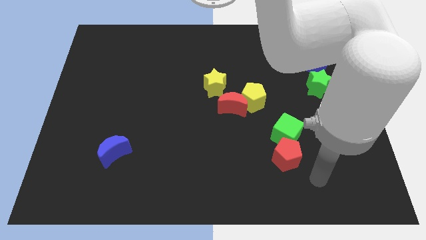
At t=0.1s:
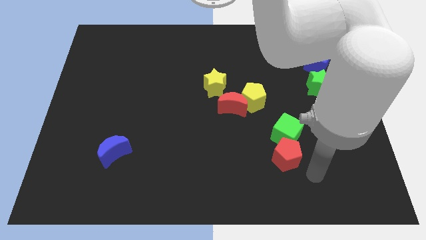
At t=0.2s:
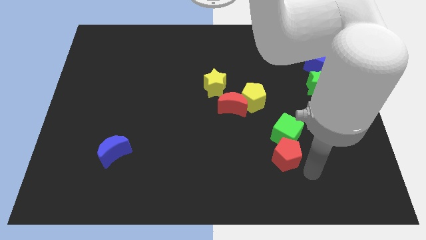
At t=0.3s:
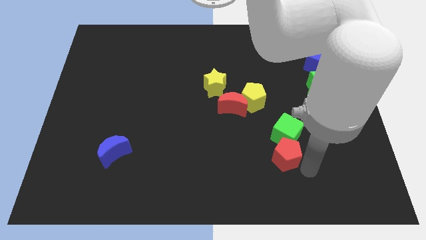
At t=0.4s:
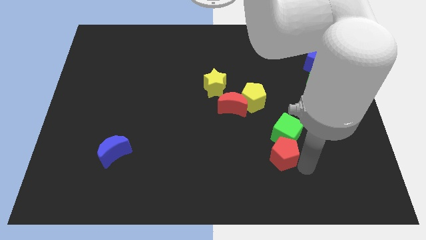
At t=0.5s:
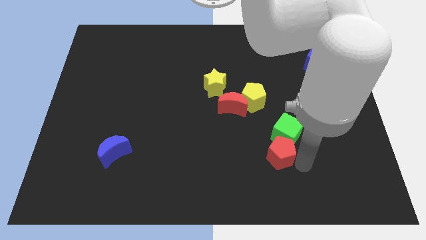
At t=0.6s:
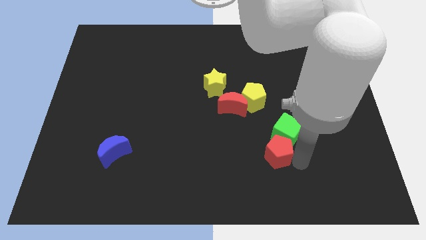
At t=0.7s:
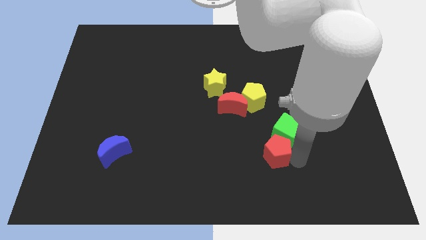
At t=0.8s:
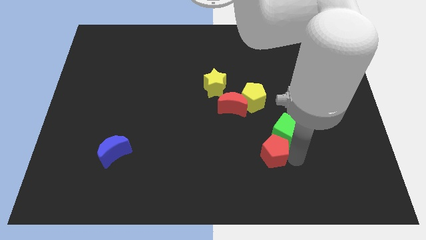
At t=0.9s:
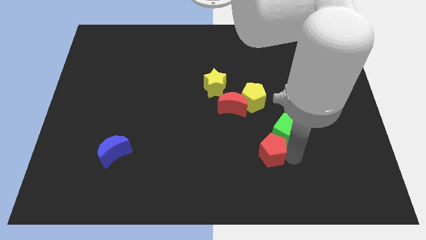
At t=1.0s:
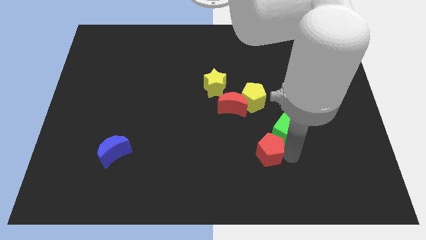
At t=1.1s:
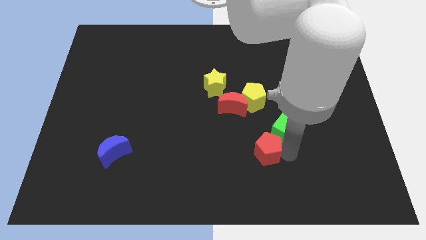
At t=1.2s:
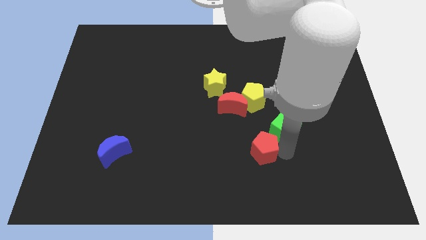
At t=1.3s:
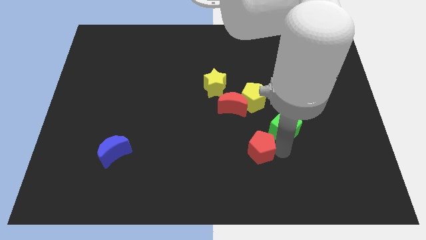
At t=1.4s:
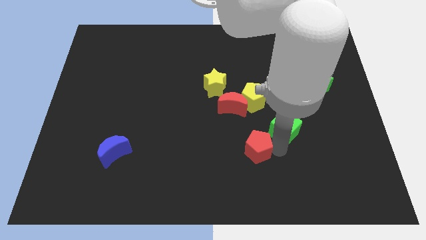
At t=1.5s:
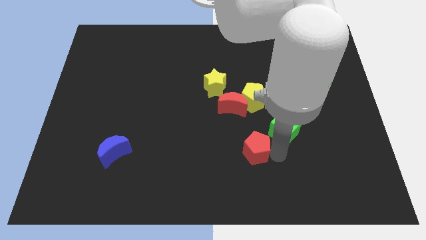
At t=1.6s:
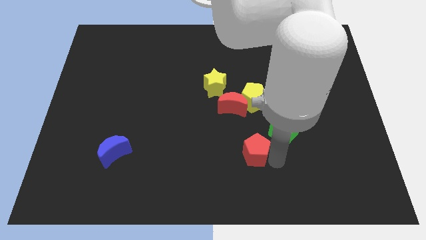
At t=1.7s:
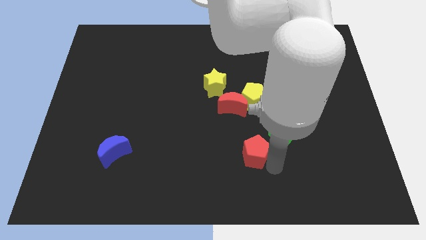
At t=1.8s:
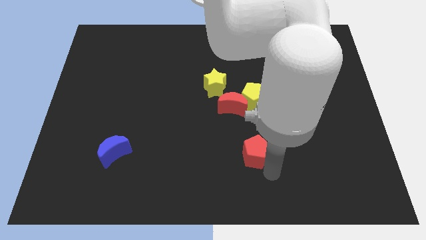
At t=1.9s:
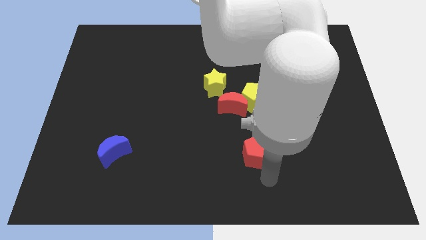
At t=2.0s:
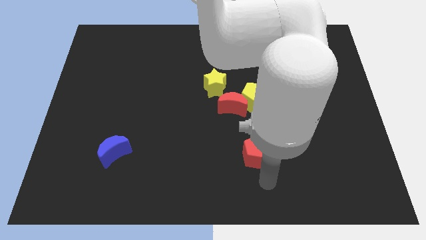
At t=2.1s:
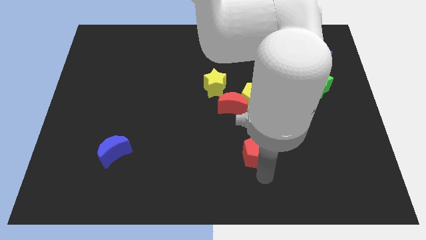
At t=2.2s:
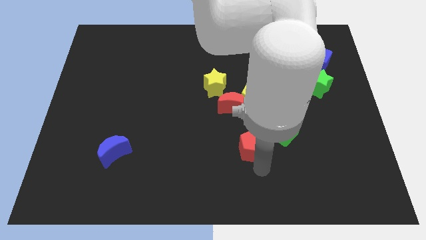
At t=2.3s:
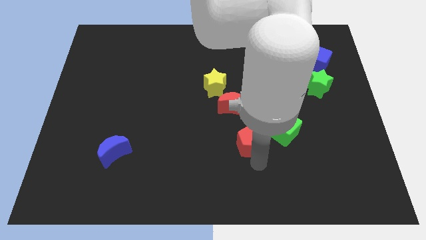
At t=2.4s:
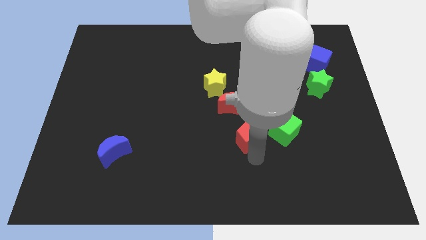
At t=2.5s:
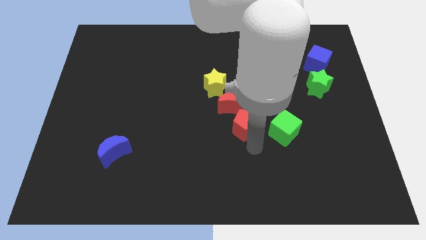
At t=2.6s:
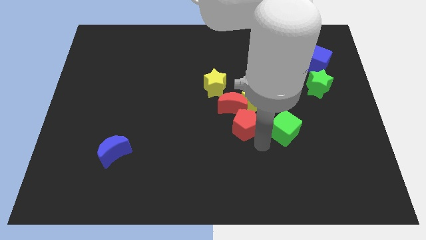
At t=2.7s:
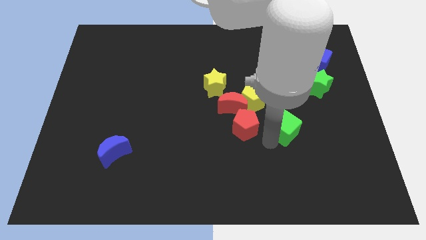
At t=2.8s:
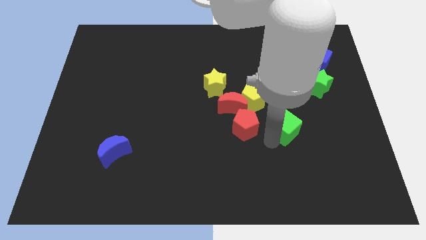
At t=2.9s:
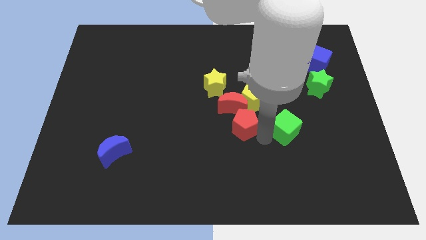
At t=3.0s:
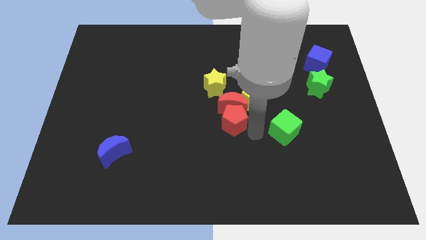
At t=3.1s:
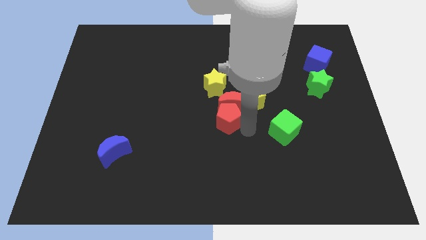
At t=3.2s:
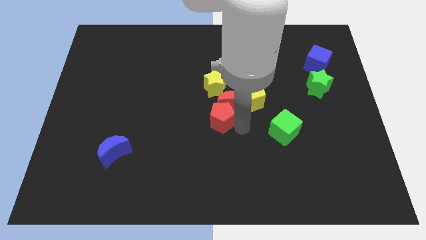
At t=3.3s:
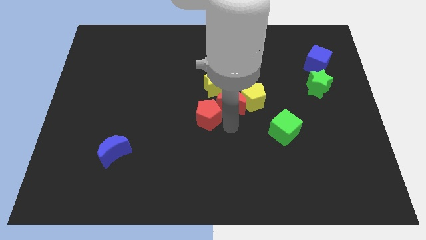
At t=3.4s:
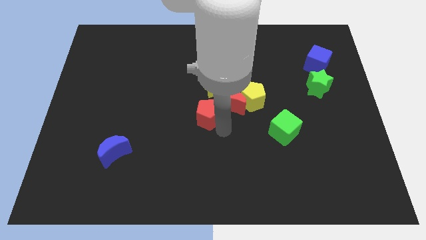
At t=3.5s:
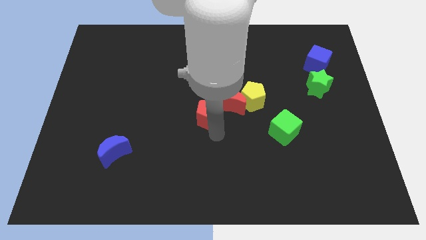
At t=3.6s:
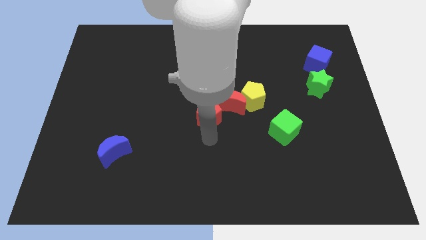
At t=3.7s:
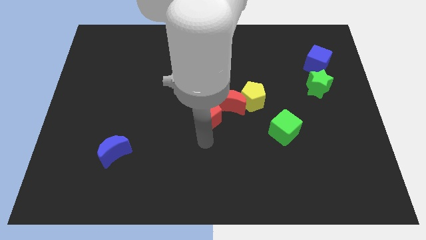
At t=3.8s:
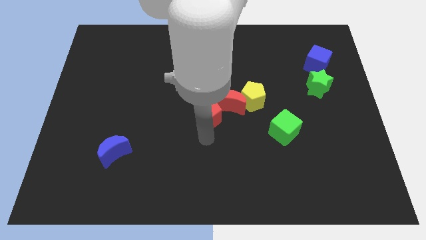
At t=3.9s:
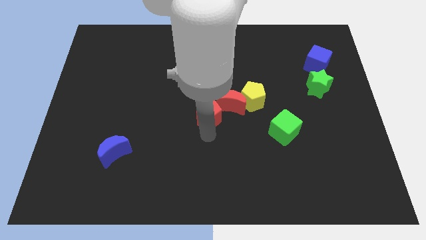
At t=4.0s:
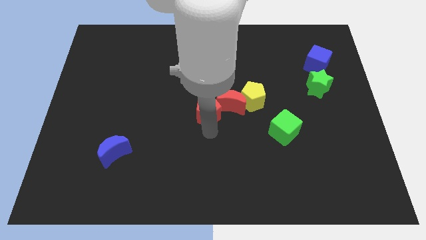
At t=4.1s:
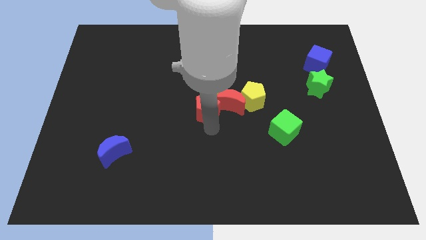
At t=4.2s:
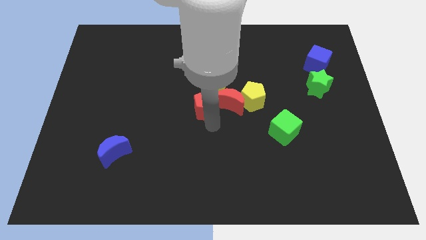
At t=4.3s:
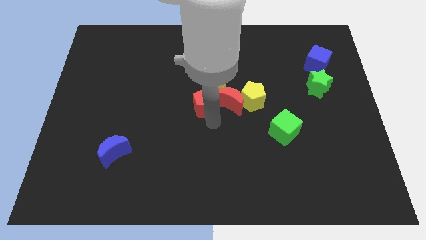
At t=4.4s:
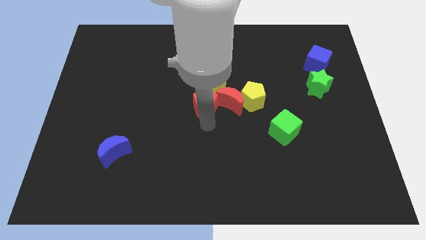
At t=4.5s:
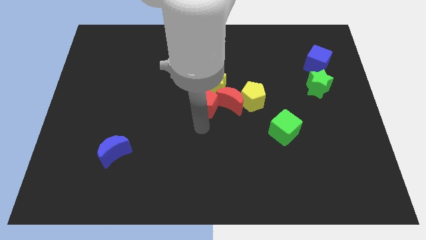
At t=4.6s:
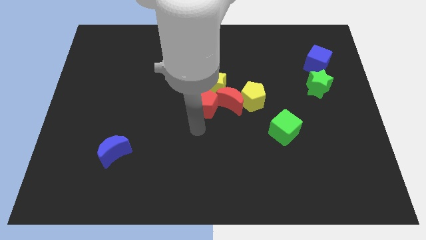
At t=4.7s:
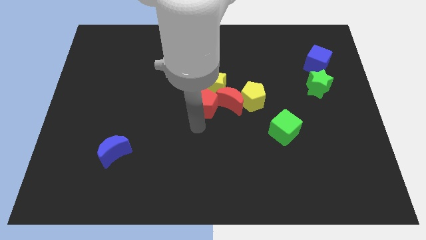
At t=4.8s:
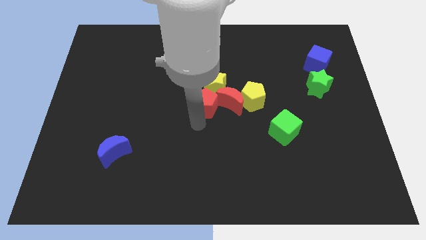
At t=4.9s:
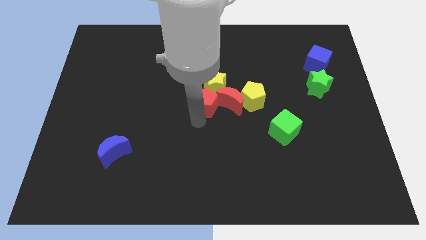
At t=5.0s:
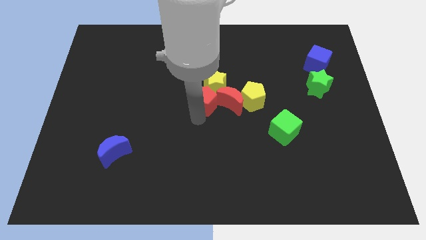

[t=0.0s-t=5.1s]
put the red pentagon next to the yellow star

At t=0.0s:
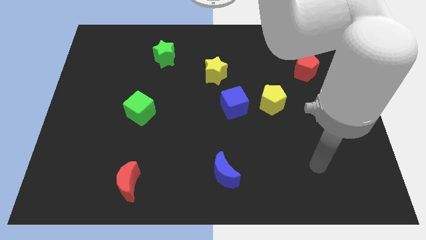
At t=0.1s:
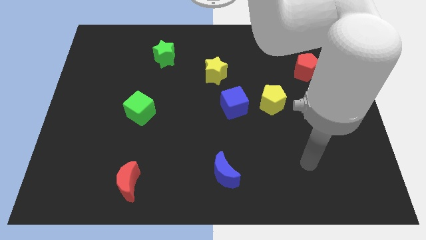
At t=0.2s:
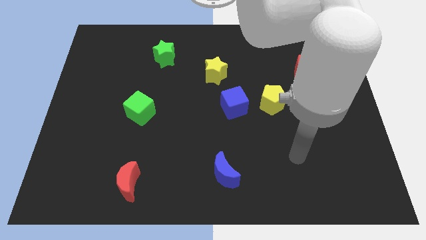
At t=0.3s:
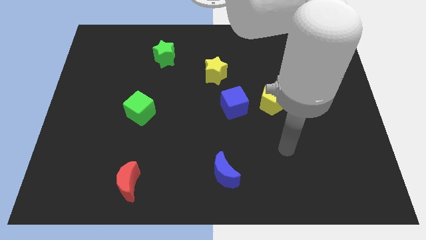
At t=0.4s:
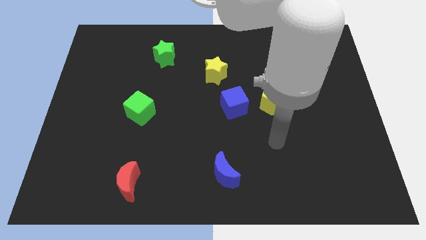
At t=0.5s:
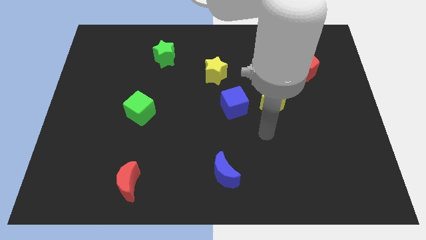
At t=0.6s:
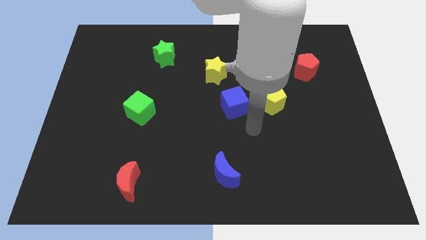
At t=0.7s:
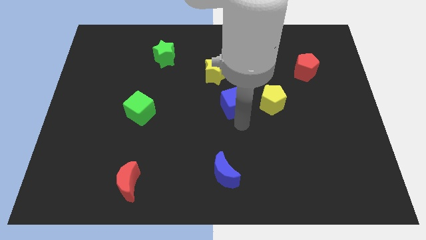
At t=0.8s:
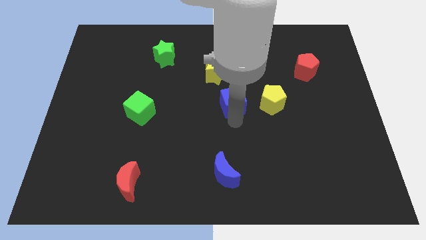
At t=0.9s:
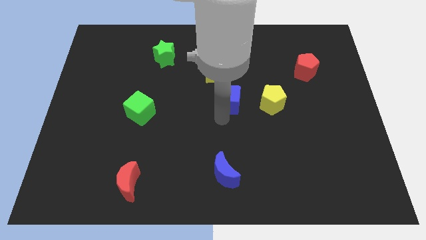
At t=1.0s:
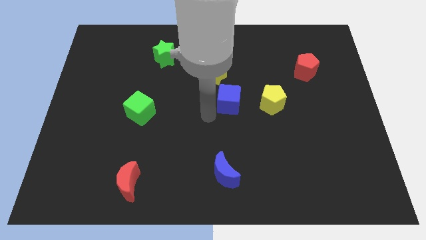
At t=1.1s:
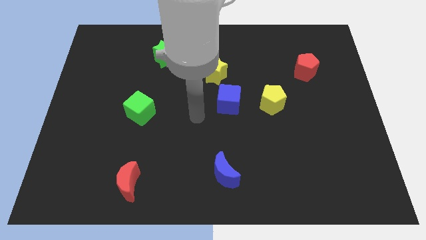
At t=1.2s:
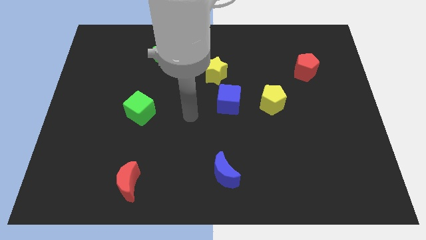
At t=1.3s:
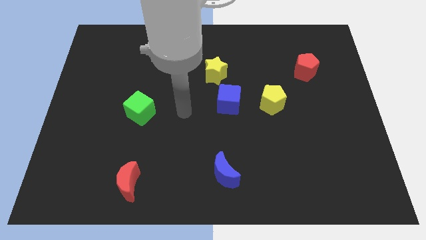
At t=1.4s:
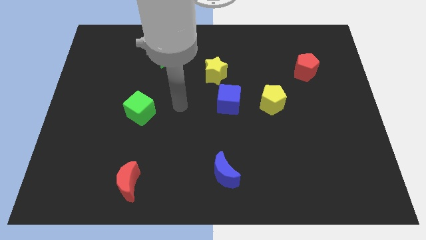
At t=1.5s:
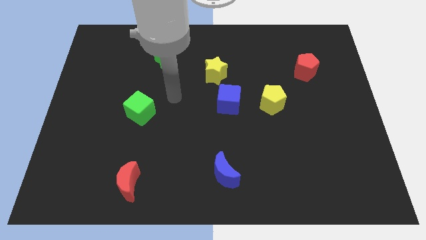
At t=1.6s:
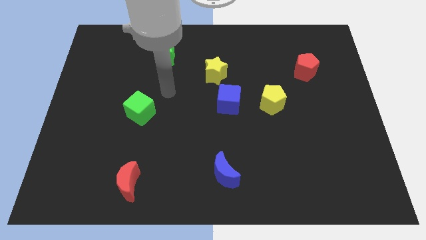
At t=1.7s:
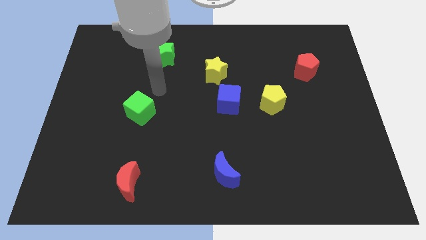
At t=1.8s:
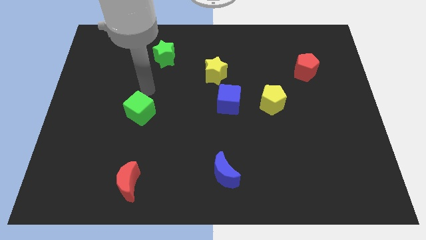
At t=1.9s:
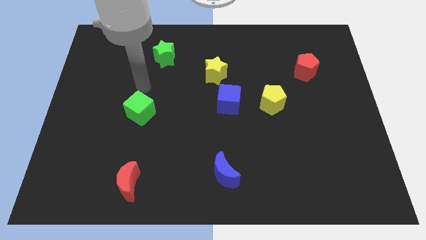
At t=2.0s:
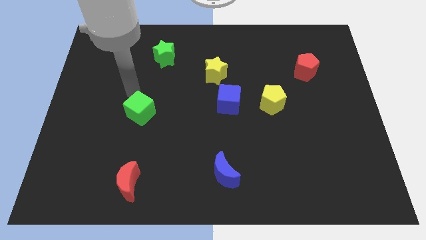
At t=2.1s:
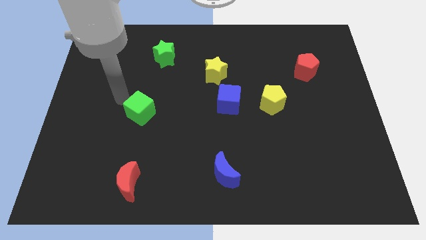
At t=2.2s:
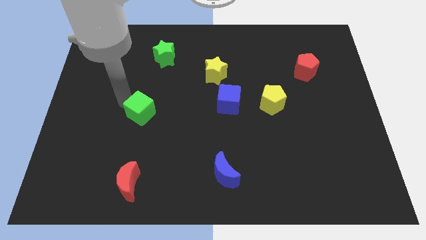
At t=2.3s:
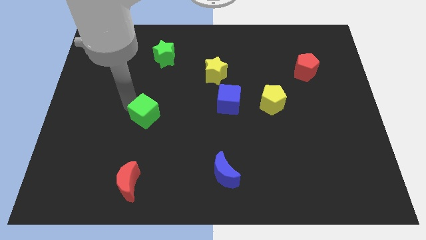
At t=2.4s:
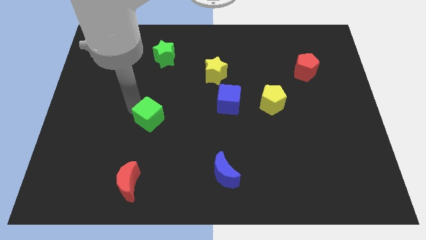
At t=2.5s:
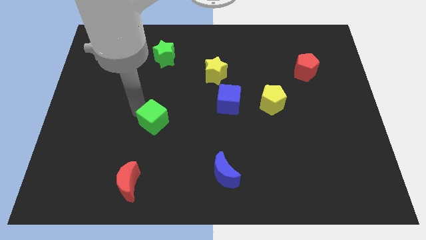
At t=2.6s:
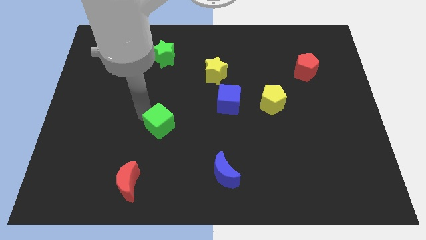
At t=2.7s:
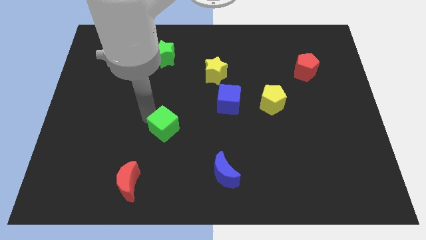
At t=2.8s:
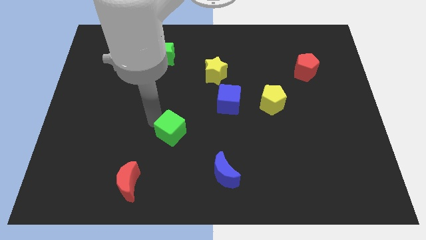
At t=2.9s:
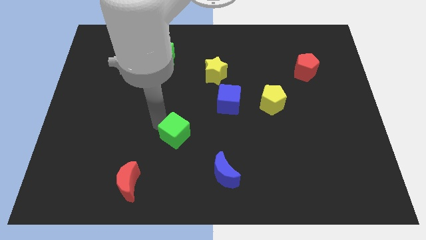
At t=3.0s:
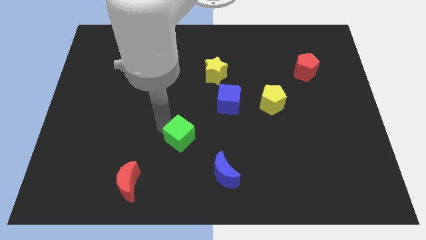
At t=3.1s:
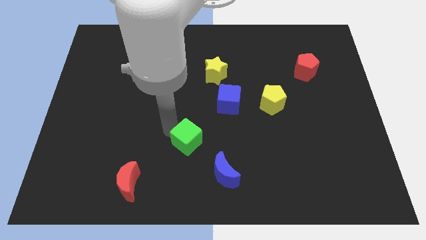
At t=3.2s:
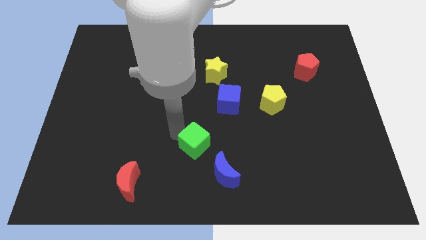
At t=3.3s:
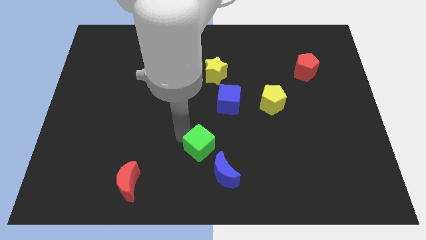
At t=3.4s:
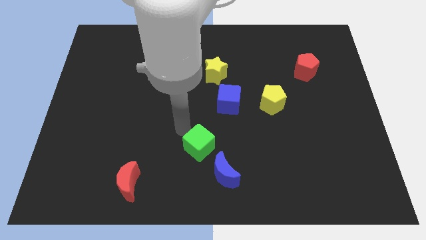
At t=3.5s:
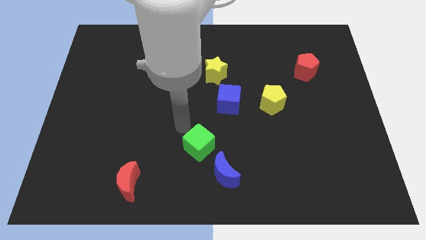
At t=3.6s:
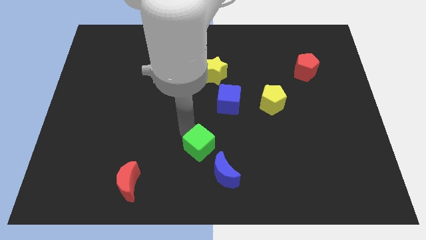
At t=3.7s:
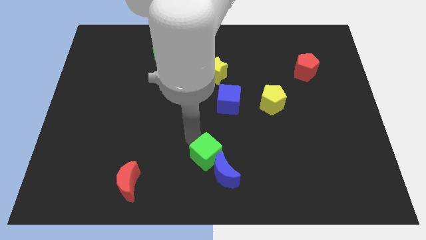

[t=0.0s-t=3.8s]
put the green cube next to the blue moon
